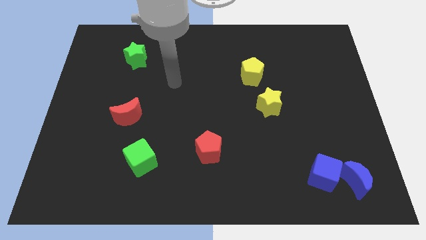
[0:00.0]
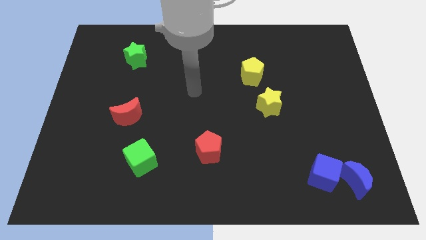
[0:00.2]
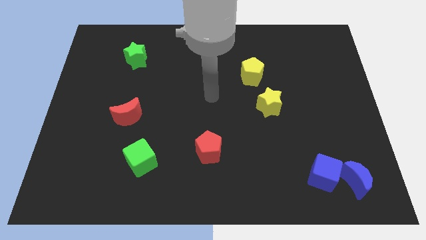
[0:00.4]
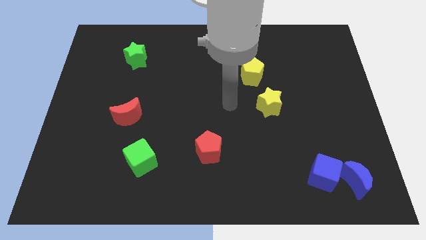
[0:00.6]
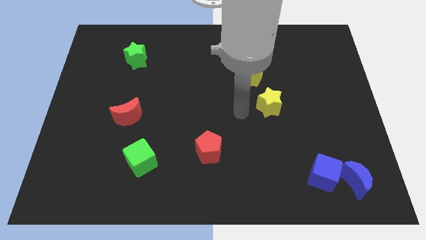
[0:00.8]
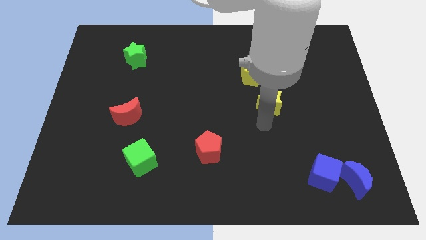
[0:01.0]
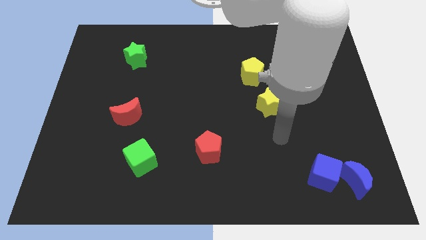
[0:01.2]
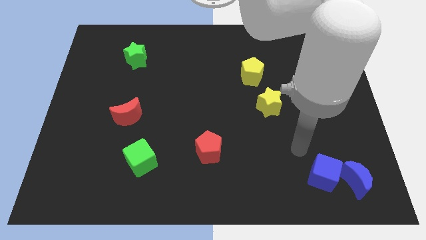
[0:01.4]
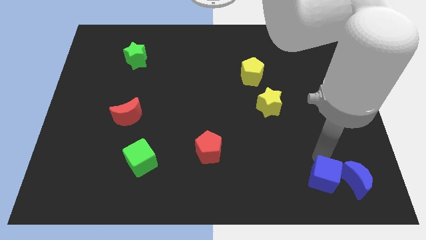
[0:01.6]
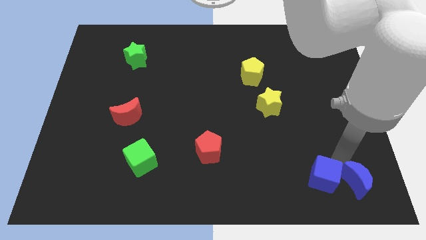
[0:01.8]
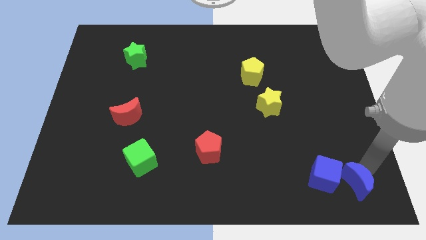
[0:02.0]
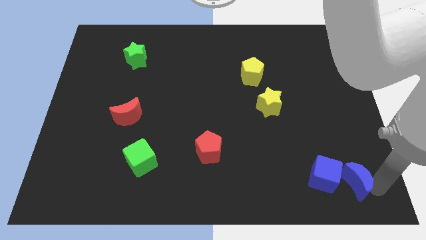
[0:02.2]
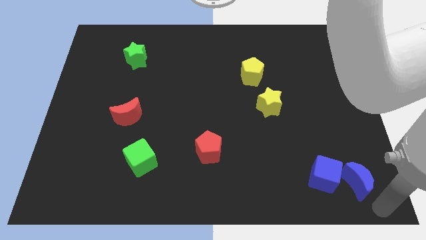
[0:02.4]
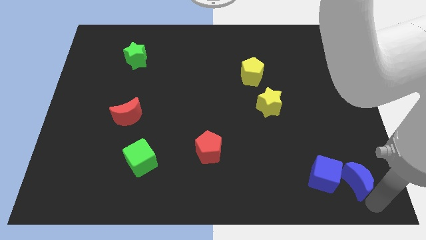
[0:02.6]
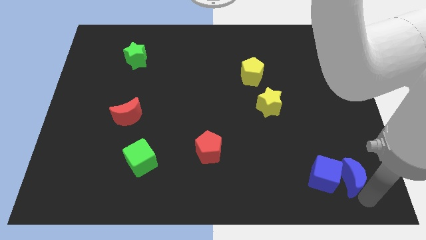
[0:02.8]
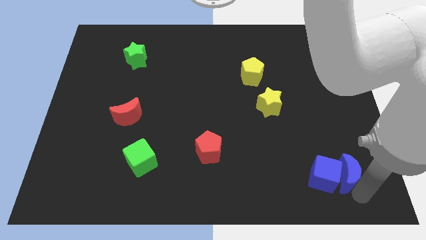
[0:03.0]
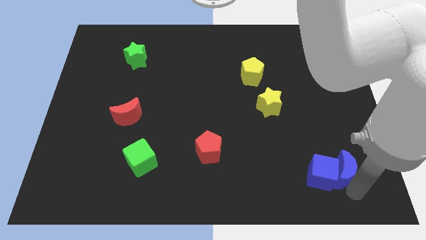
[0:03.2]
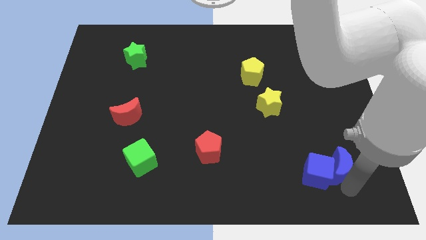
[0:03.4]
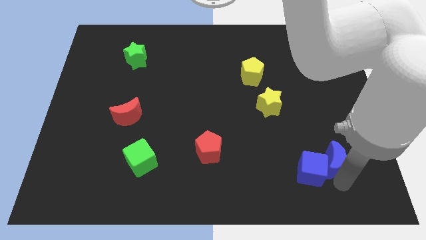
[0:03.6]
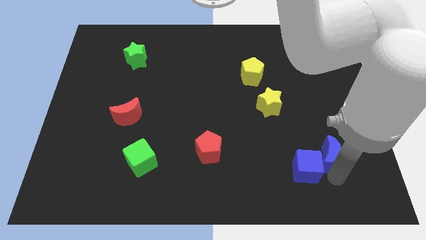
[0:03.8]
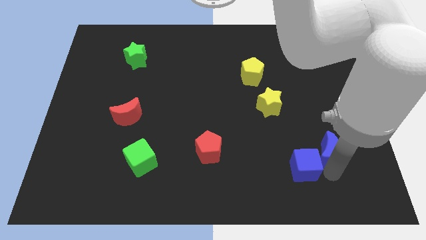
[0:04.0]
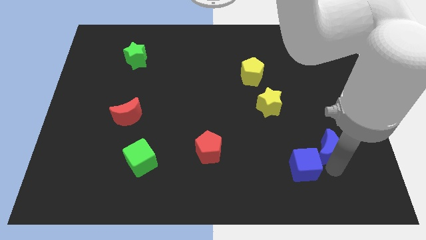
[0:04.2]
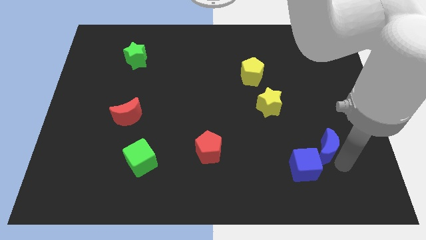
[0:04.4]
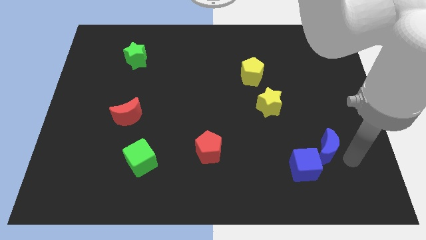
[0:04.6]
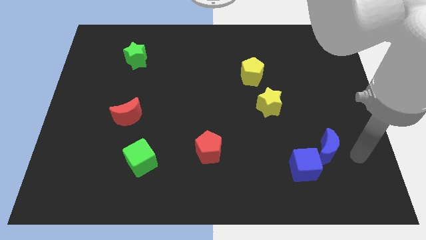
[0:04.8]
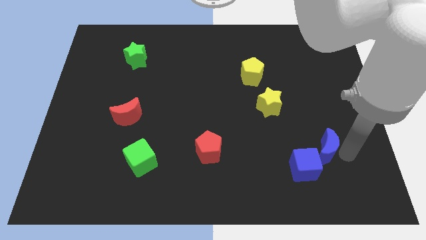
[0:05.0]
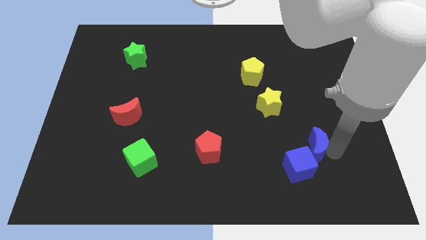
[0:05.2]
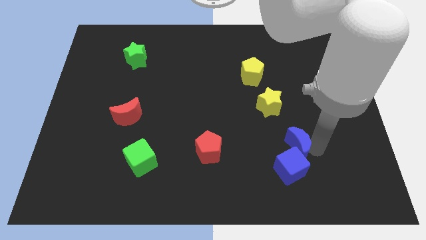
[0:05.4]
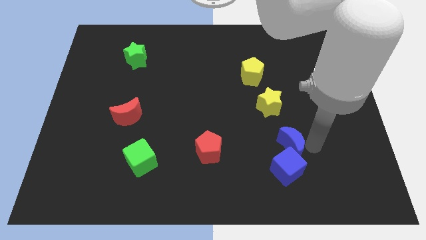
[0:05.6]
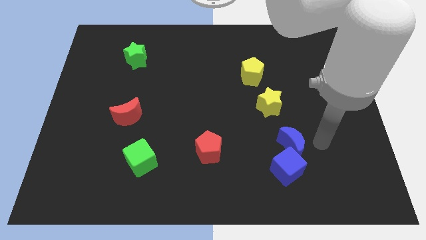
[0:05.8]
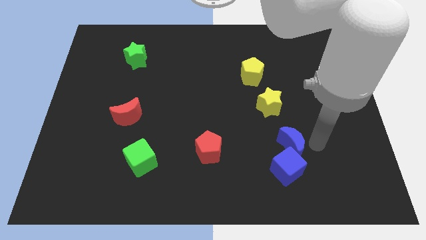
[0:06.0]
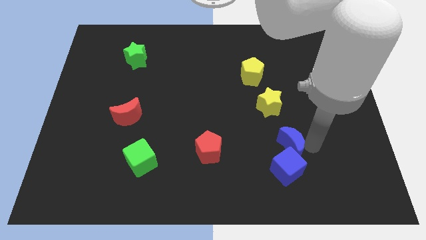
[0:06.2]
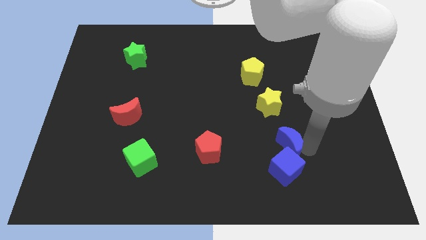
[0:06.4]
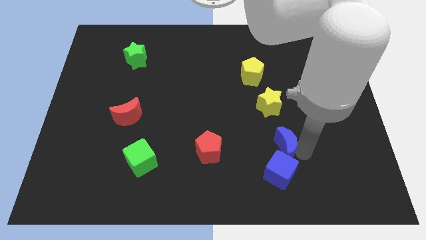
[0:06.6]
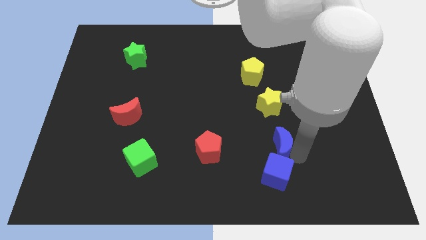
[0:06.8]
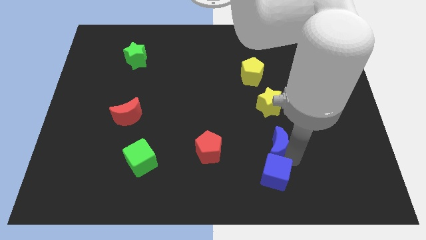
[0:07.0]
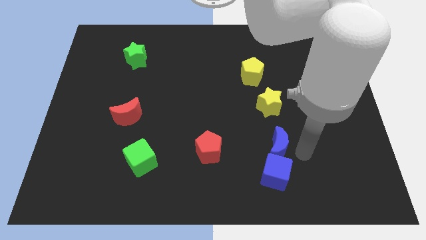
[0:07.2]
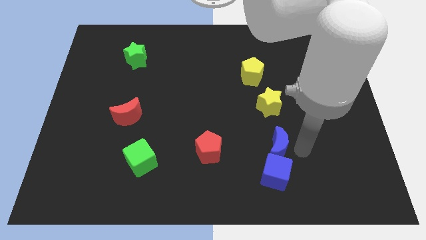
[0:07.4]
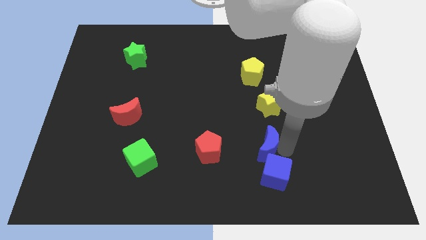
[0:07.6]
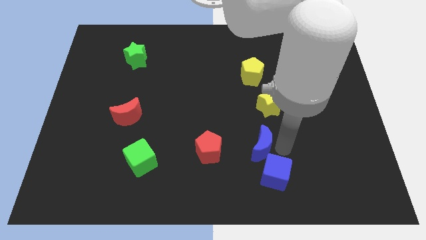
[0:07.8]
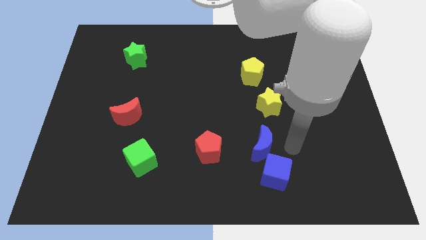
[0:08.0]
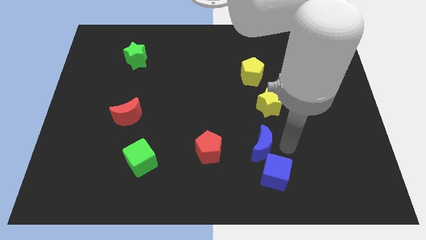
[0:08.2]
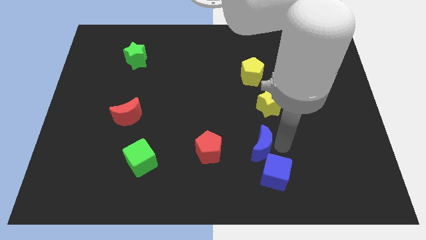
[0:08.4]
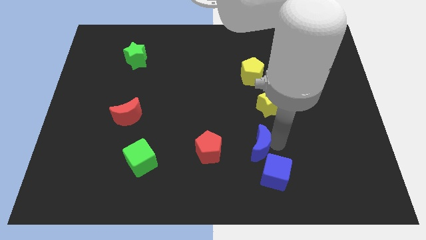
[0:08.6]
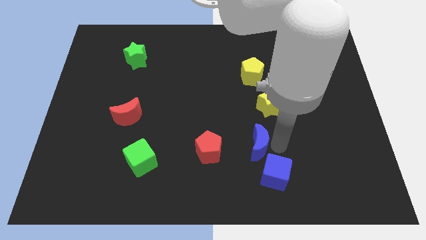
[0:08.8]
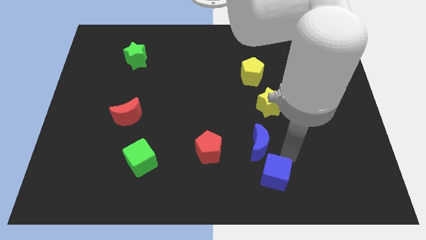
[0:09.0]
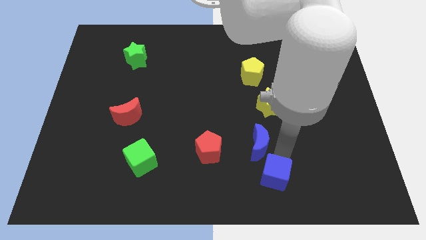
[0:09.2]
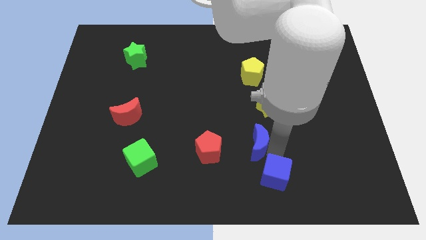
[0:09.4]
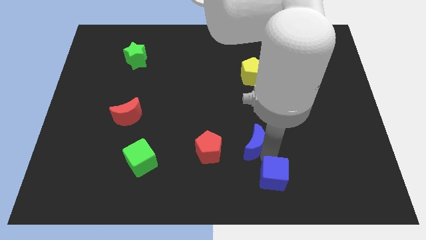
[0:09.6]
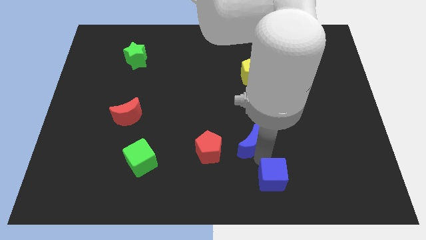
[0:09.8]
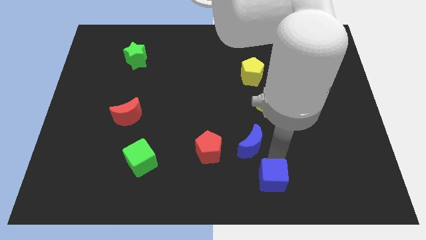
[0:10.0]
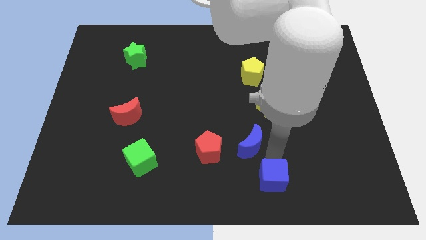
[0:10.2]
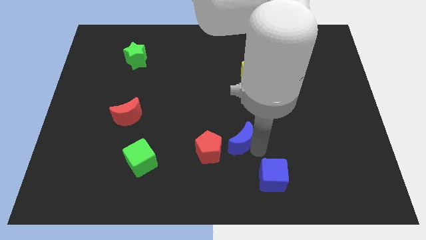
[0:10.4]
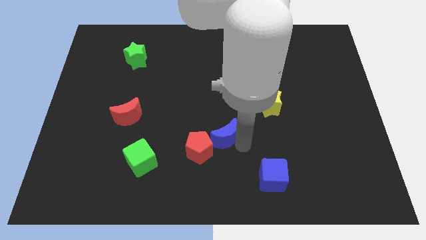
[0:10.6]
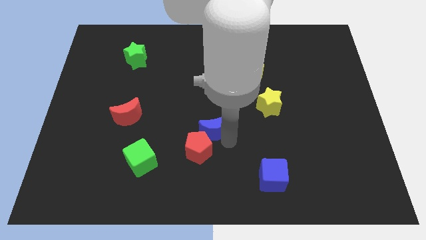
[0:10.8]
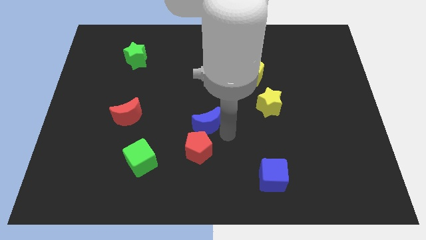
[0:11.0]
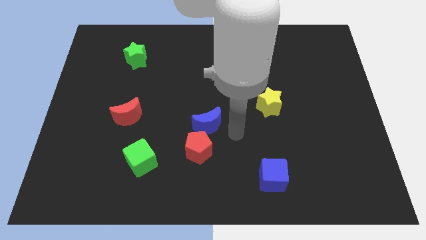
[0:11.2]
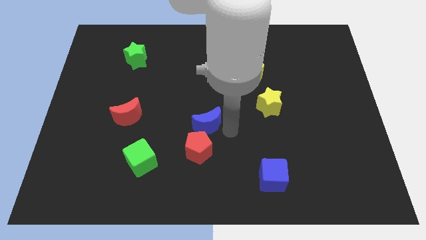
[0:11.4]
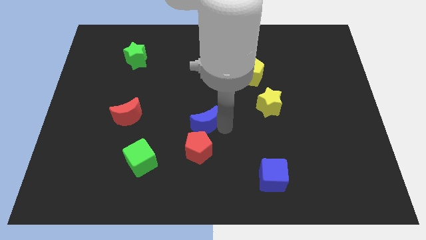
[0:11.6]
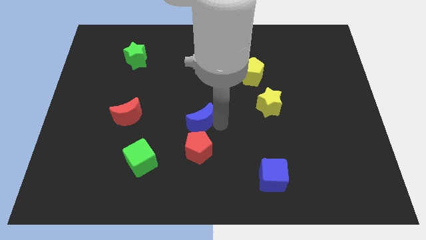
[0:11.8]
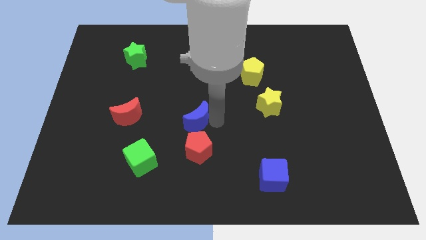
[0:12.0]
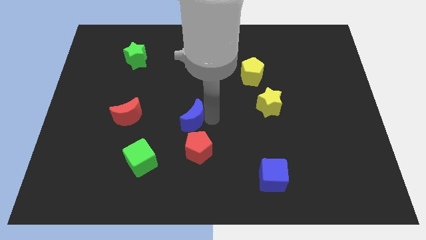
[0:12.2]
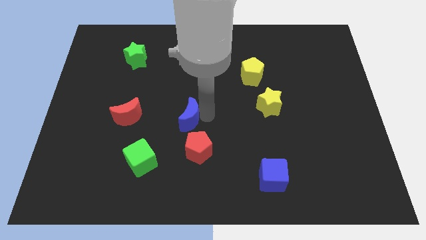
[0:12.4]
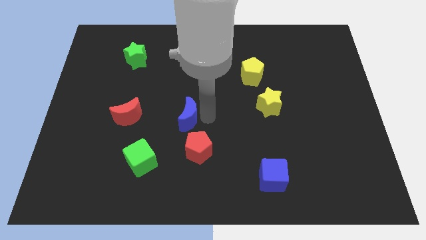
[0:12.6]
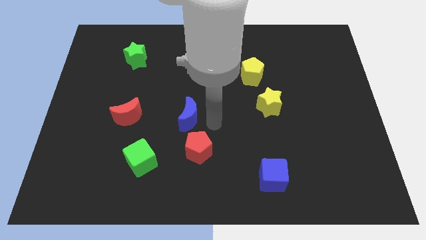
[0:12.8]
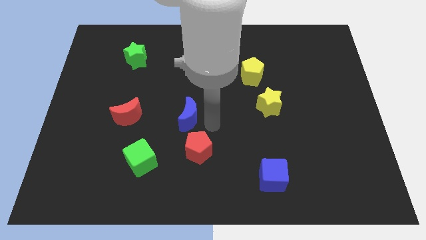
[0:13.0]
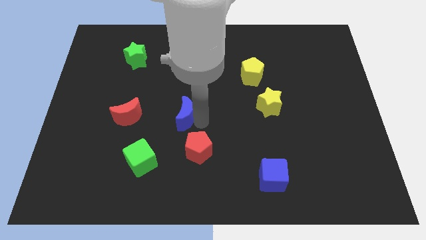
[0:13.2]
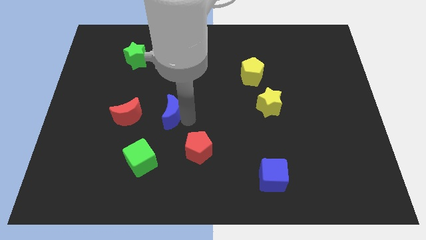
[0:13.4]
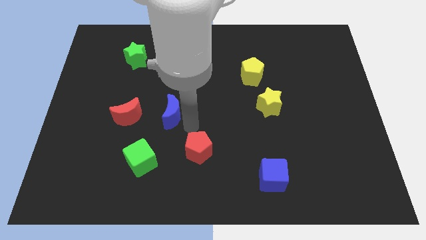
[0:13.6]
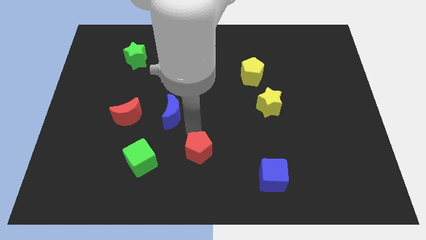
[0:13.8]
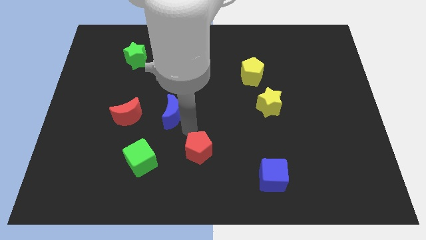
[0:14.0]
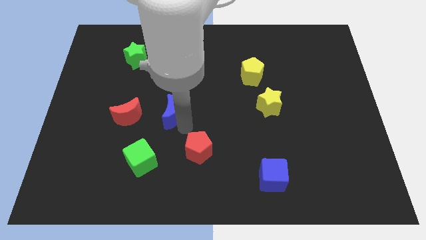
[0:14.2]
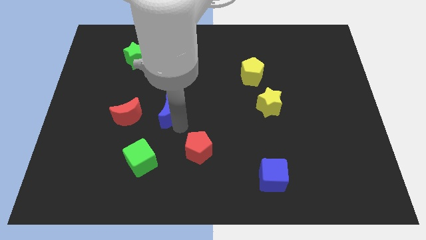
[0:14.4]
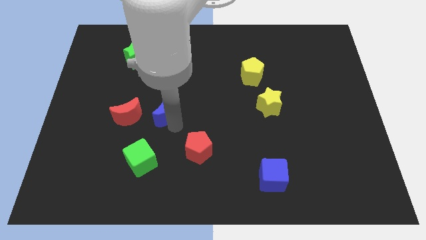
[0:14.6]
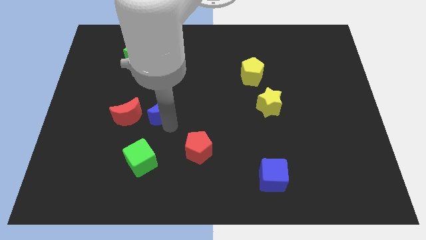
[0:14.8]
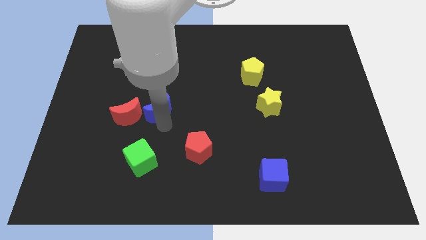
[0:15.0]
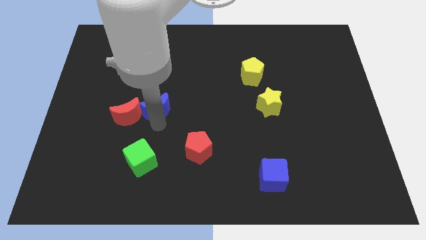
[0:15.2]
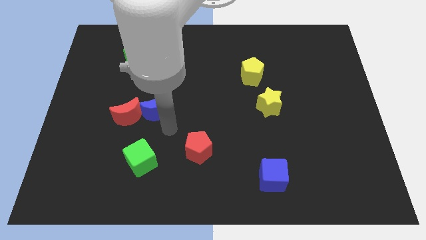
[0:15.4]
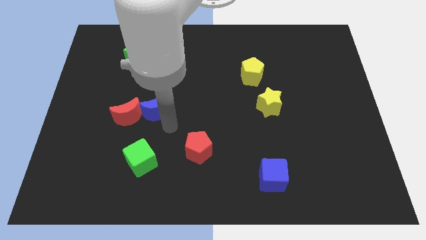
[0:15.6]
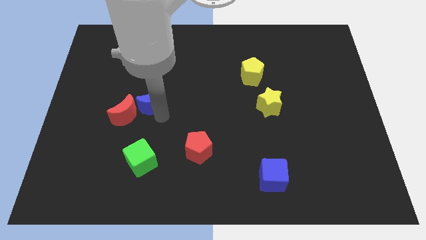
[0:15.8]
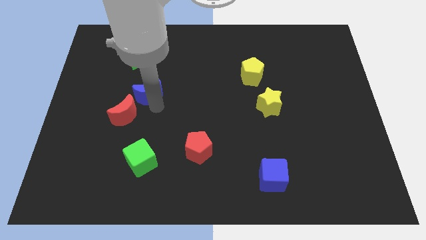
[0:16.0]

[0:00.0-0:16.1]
slide the blue moon below the green star
